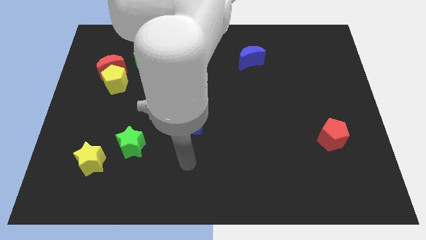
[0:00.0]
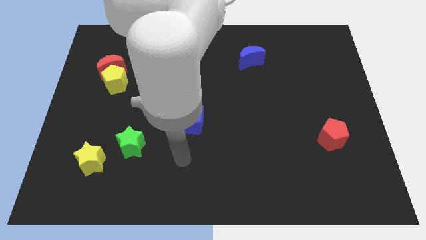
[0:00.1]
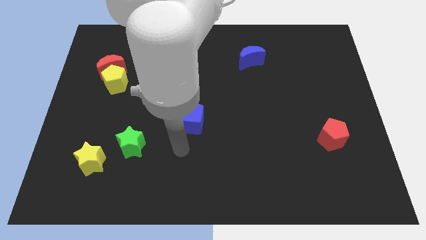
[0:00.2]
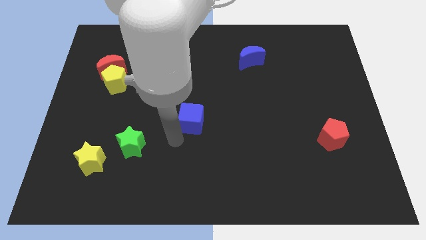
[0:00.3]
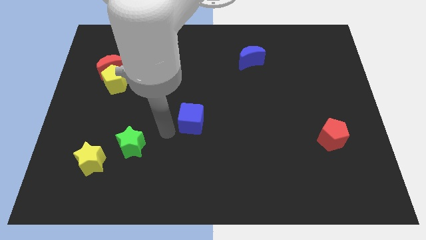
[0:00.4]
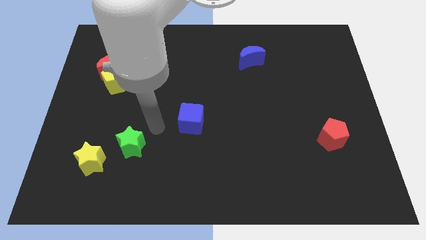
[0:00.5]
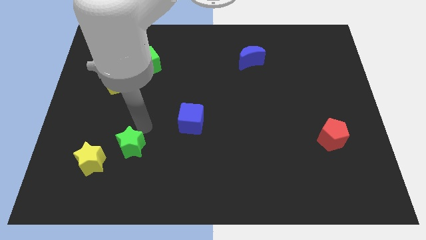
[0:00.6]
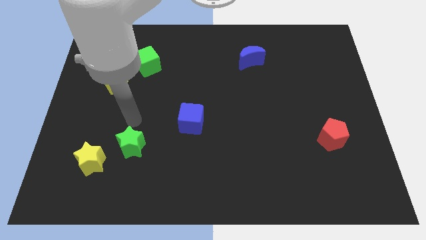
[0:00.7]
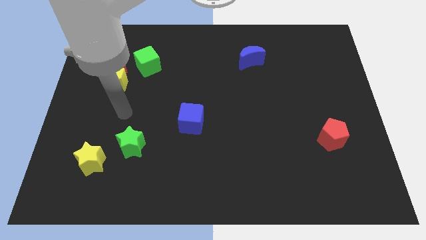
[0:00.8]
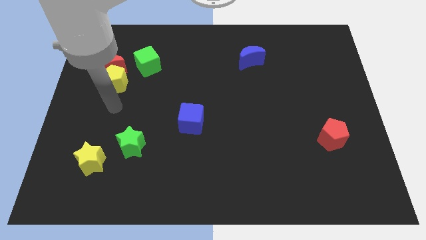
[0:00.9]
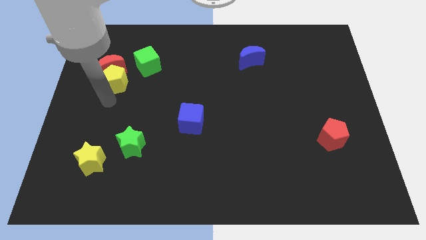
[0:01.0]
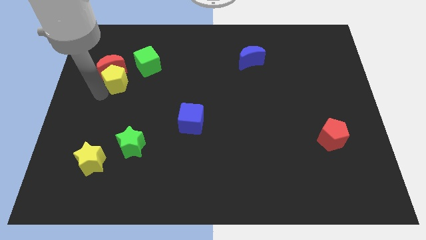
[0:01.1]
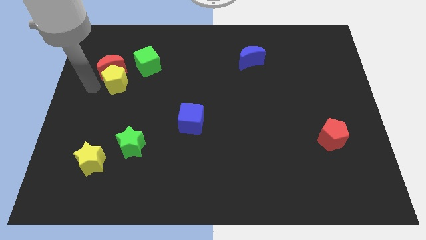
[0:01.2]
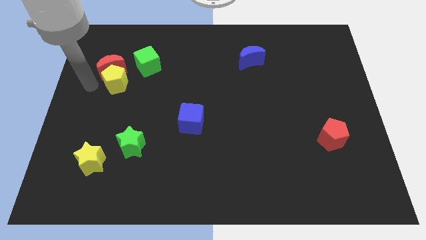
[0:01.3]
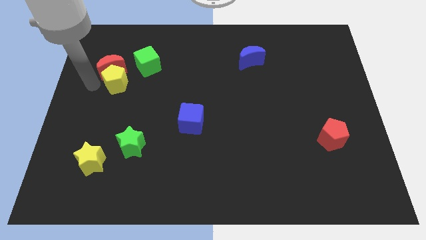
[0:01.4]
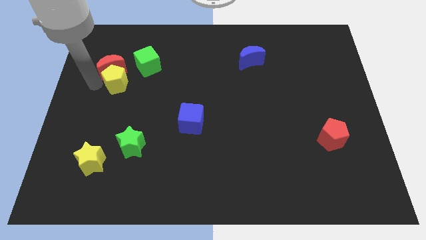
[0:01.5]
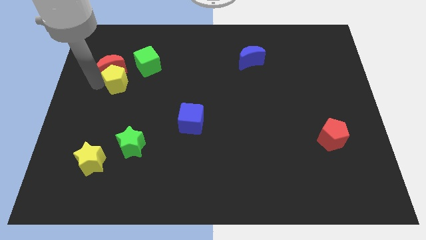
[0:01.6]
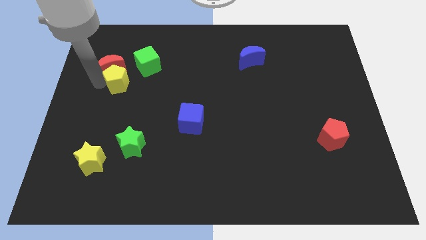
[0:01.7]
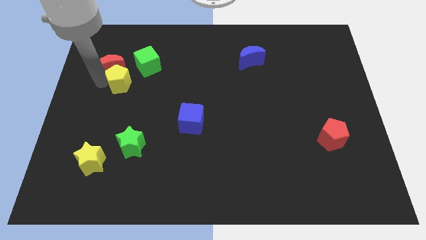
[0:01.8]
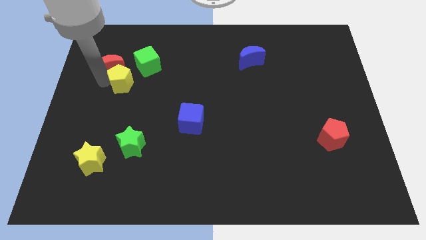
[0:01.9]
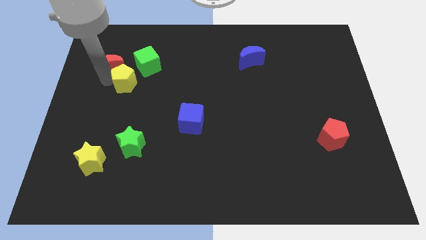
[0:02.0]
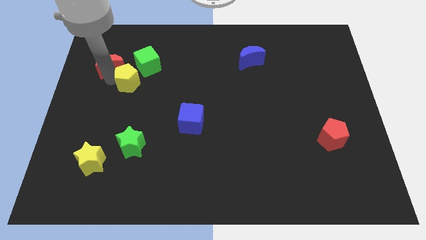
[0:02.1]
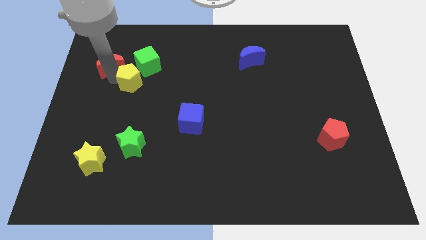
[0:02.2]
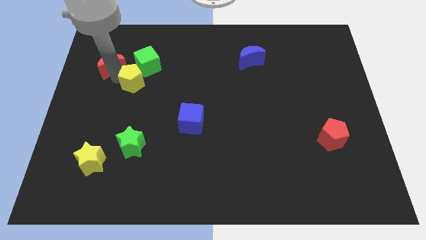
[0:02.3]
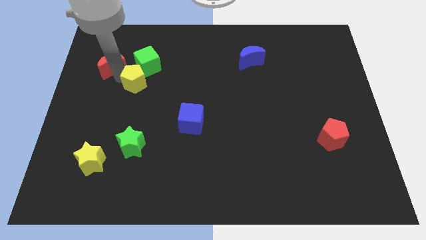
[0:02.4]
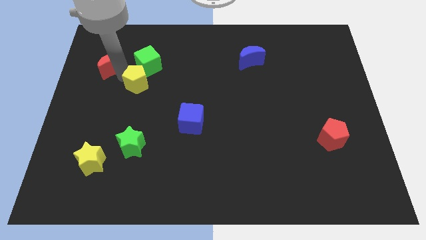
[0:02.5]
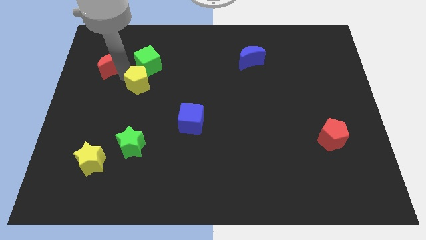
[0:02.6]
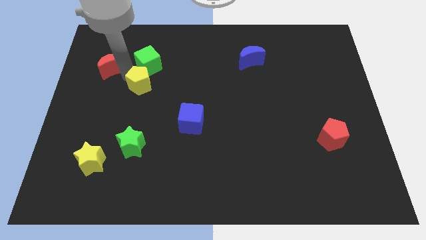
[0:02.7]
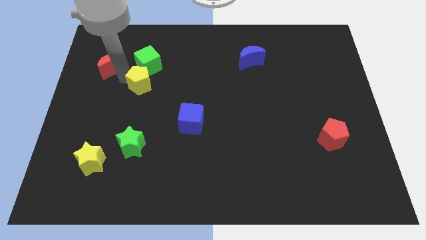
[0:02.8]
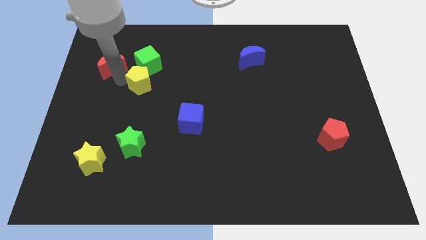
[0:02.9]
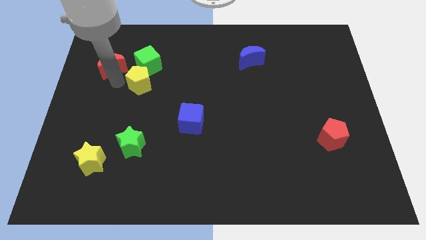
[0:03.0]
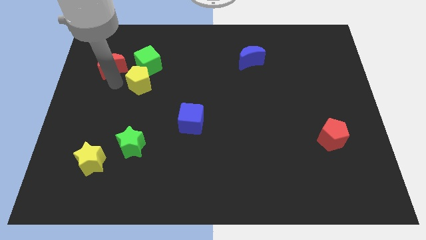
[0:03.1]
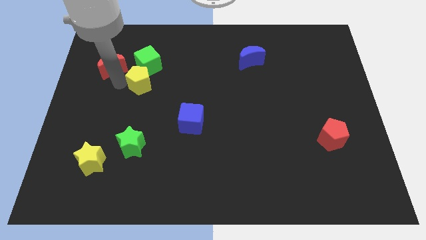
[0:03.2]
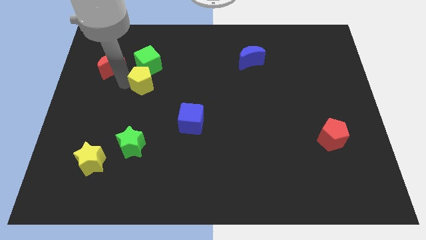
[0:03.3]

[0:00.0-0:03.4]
slightly move the yellow pentagon to the right

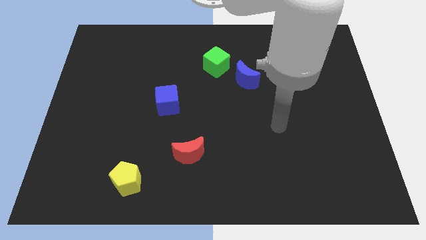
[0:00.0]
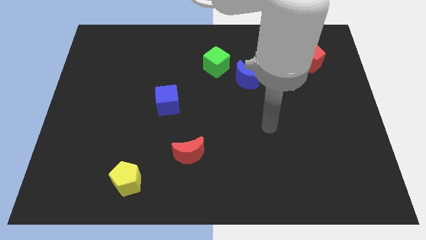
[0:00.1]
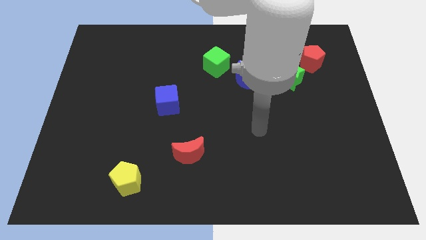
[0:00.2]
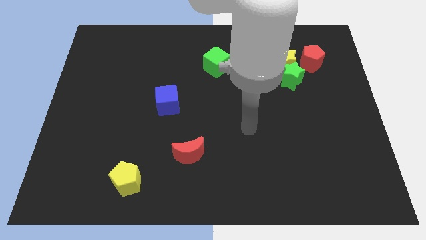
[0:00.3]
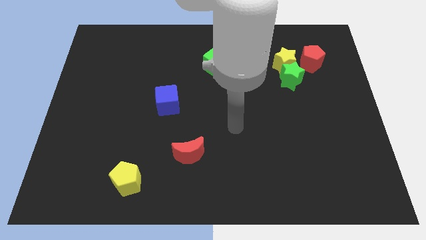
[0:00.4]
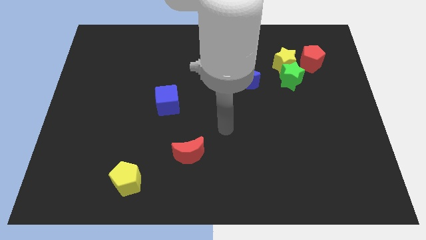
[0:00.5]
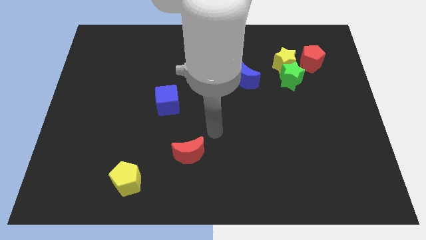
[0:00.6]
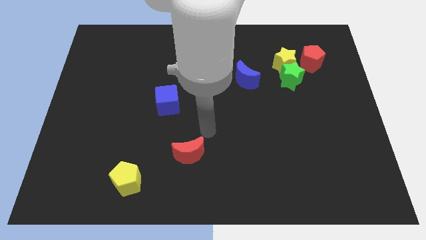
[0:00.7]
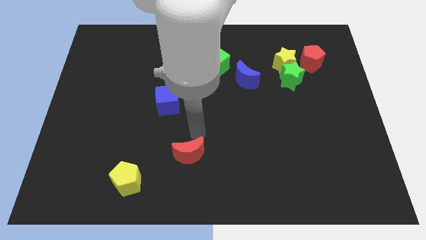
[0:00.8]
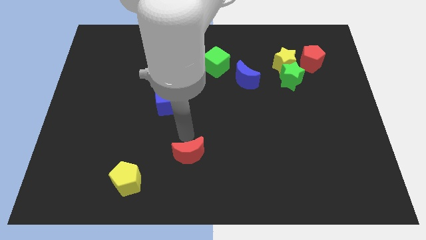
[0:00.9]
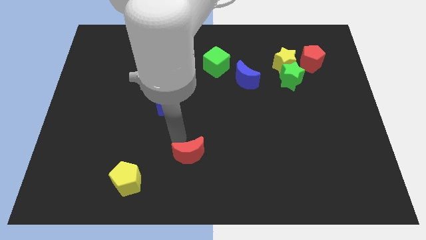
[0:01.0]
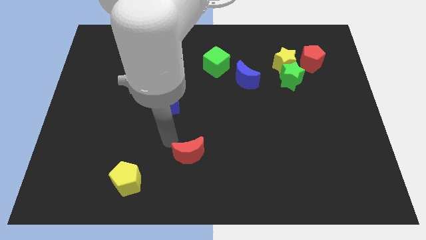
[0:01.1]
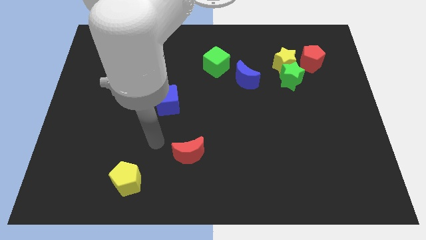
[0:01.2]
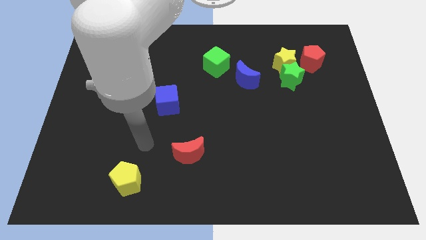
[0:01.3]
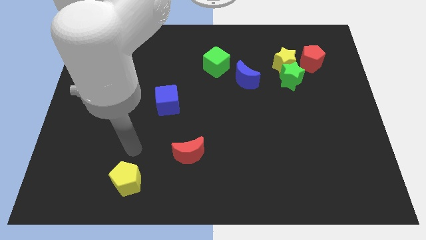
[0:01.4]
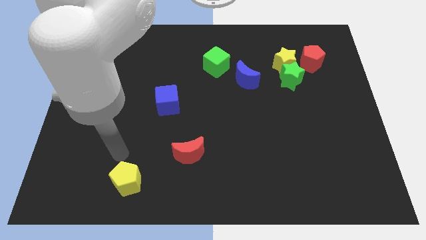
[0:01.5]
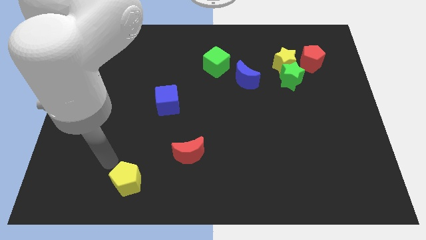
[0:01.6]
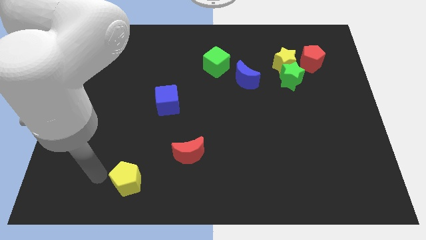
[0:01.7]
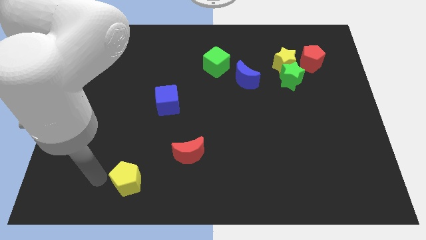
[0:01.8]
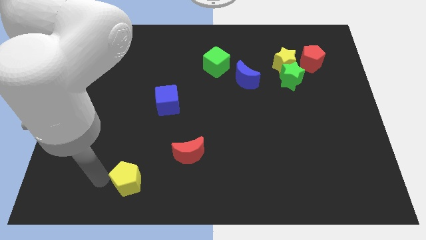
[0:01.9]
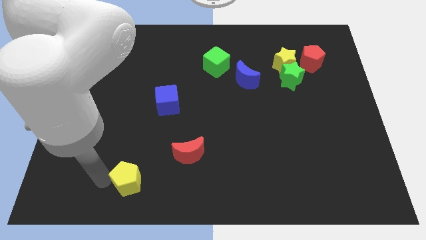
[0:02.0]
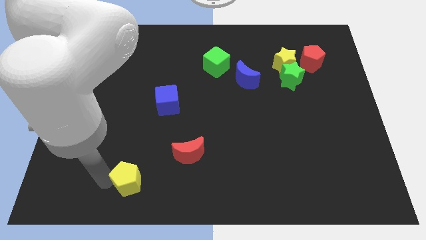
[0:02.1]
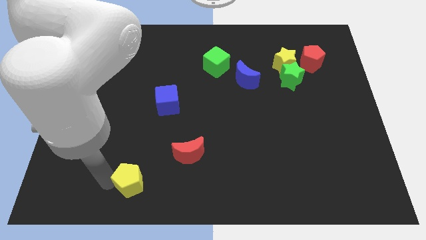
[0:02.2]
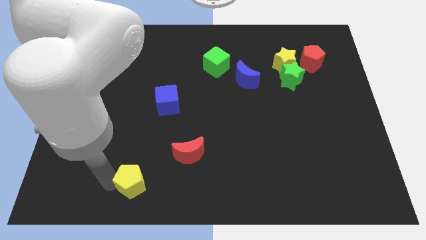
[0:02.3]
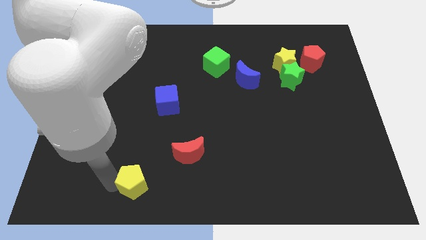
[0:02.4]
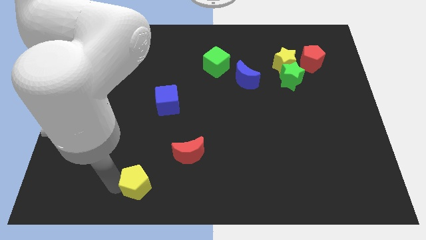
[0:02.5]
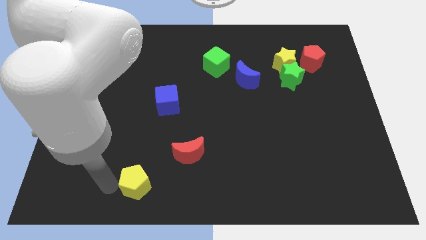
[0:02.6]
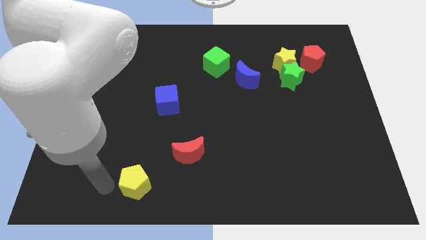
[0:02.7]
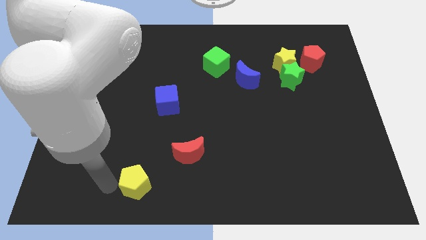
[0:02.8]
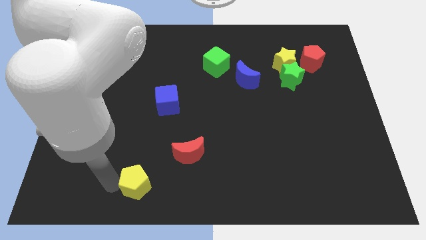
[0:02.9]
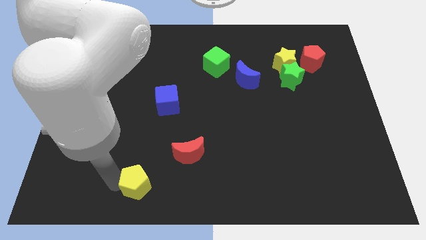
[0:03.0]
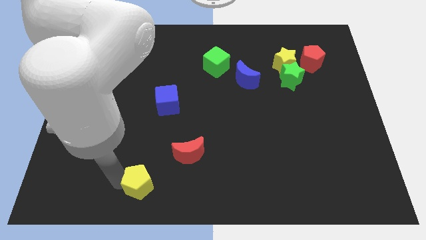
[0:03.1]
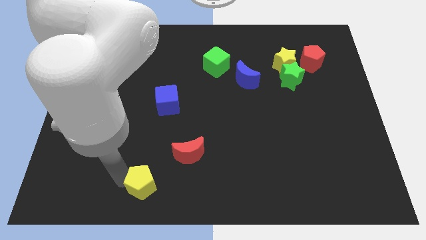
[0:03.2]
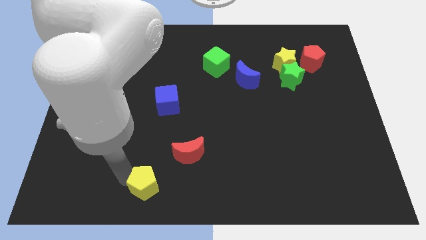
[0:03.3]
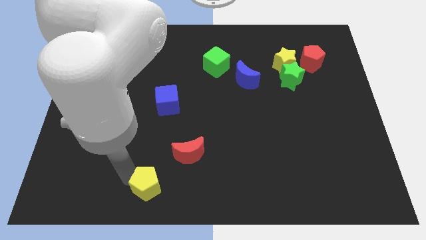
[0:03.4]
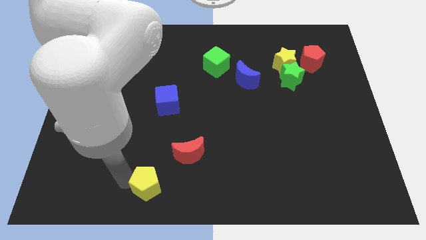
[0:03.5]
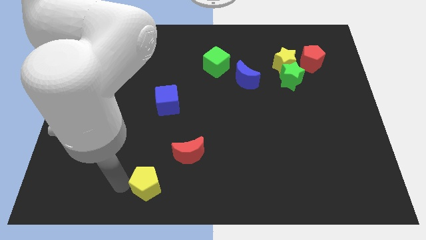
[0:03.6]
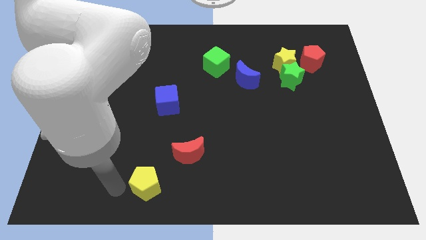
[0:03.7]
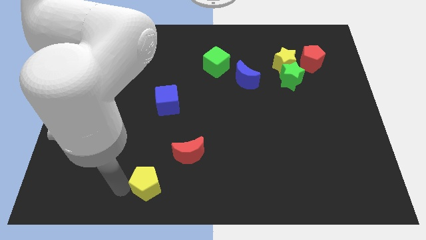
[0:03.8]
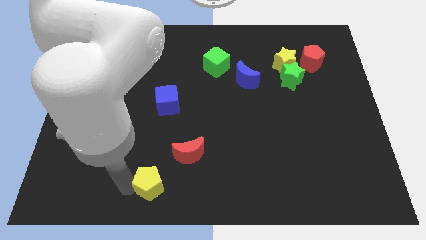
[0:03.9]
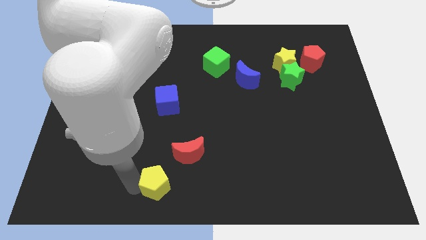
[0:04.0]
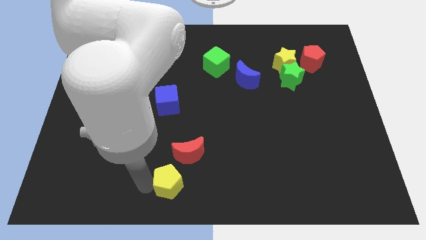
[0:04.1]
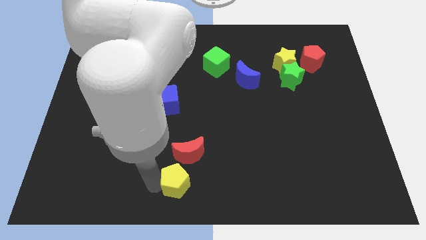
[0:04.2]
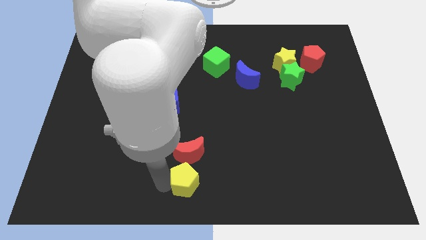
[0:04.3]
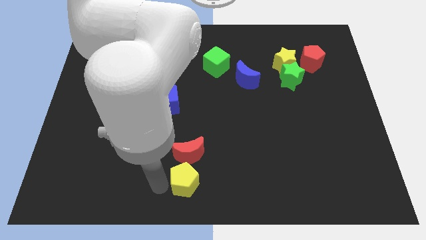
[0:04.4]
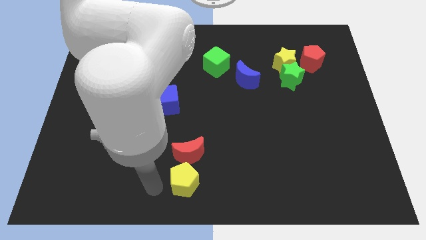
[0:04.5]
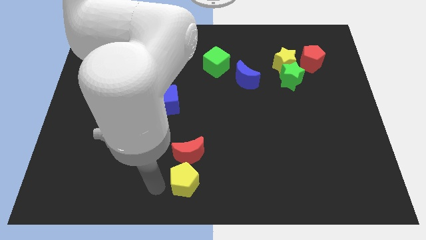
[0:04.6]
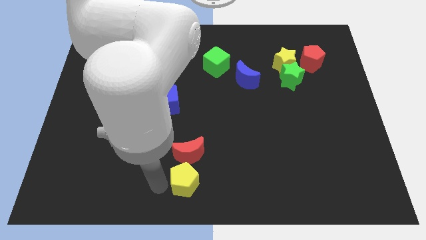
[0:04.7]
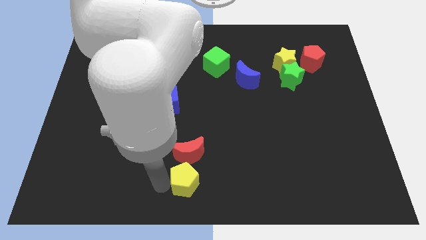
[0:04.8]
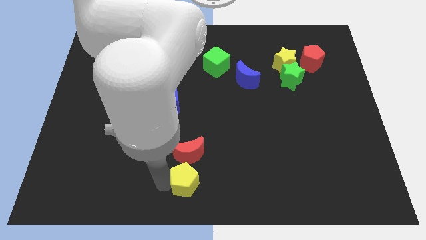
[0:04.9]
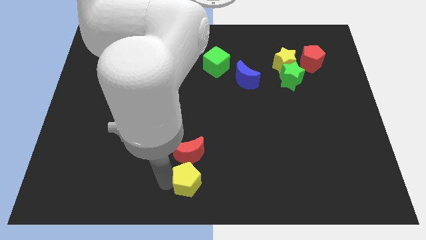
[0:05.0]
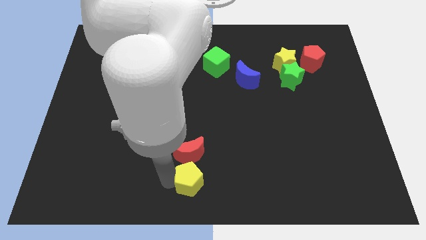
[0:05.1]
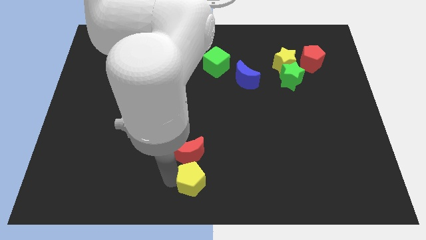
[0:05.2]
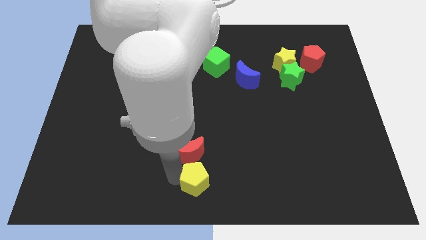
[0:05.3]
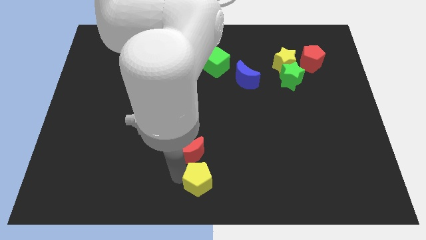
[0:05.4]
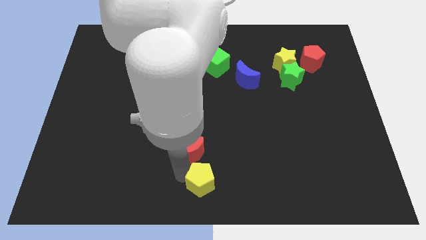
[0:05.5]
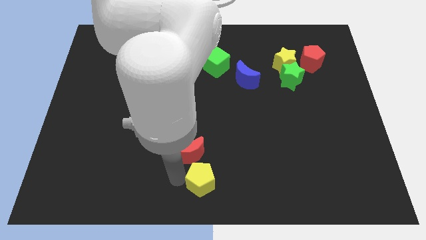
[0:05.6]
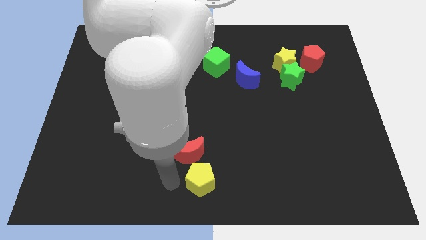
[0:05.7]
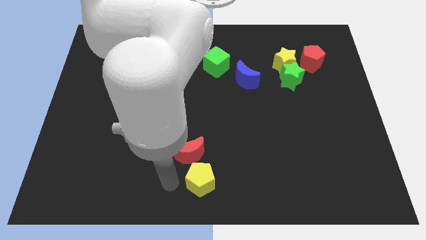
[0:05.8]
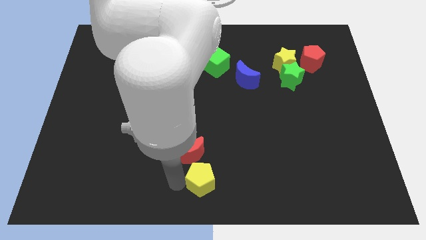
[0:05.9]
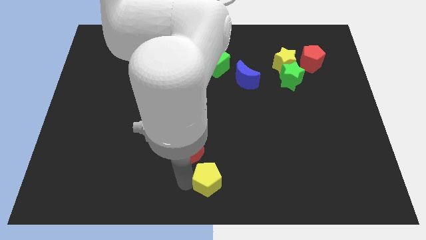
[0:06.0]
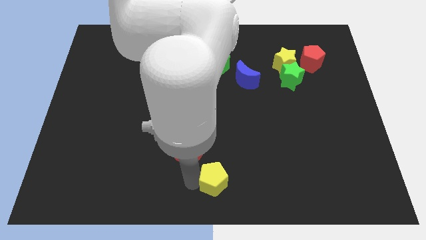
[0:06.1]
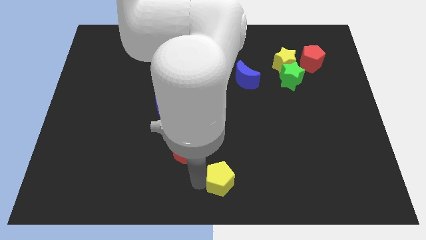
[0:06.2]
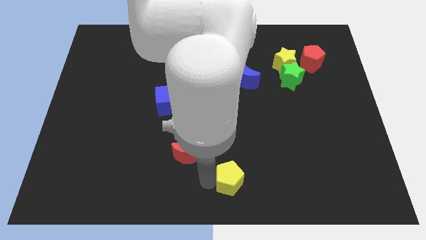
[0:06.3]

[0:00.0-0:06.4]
slide the yellow pentagon to the right
